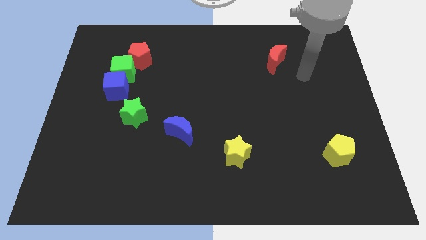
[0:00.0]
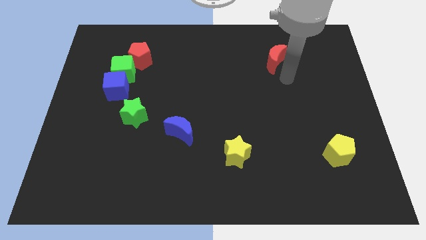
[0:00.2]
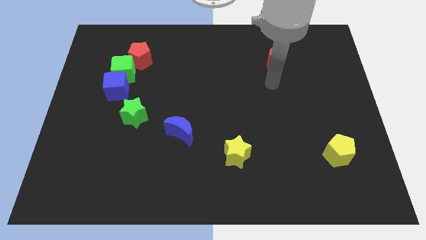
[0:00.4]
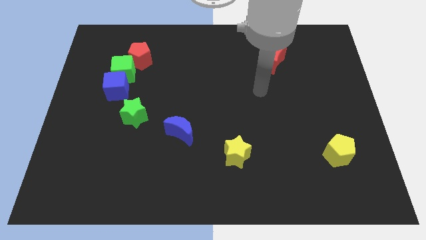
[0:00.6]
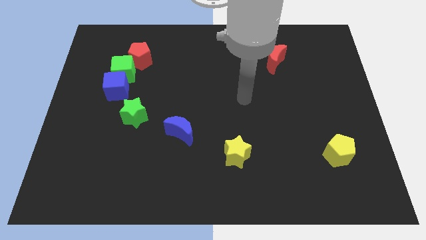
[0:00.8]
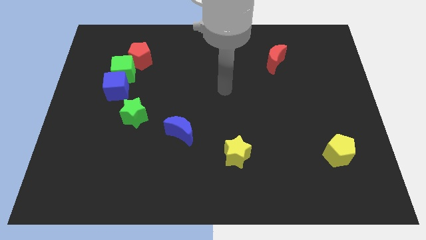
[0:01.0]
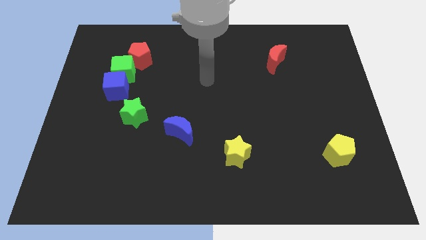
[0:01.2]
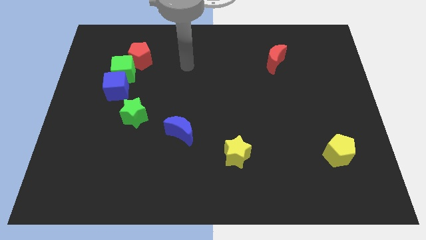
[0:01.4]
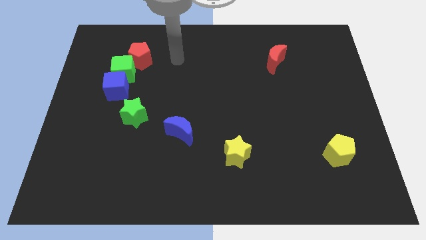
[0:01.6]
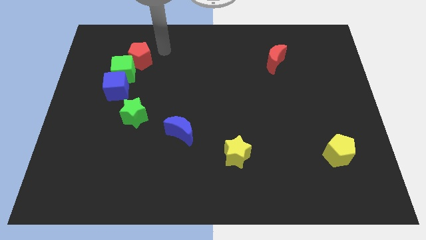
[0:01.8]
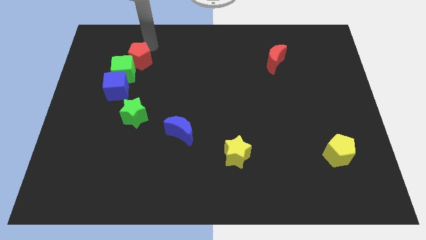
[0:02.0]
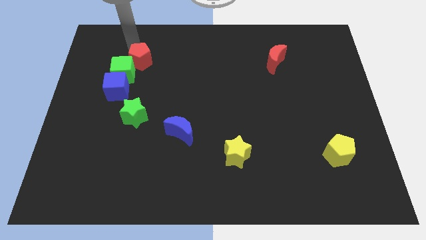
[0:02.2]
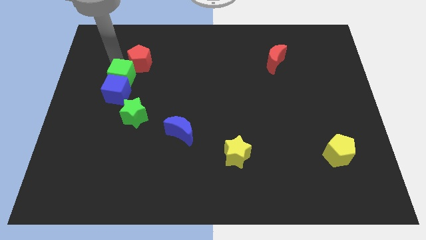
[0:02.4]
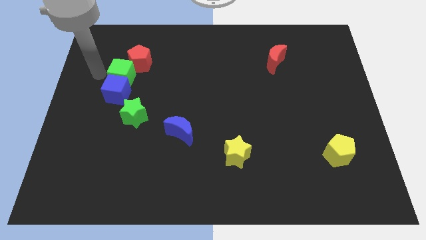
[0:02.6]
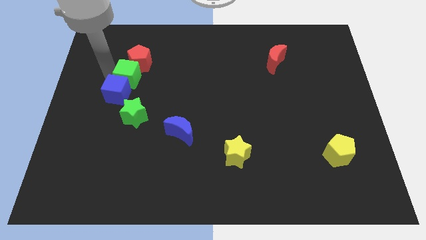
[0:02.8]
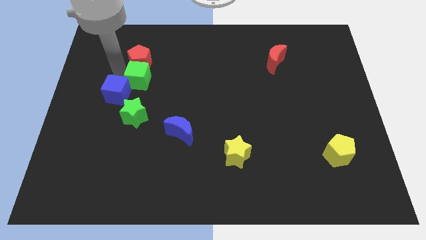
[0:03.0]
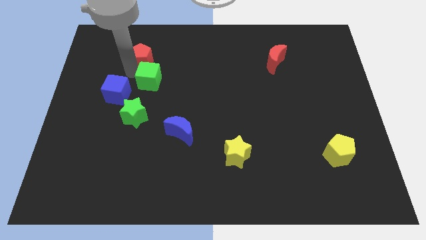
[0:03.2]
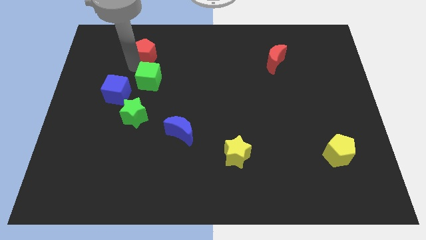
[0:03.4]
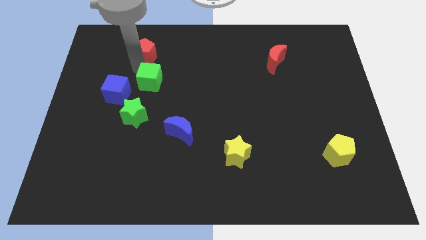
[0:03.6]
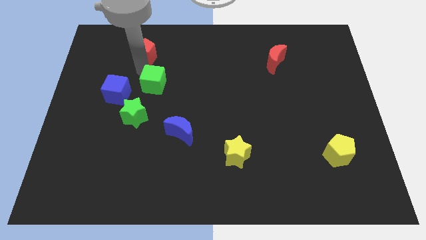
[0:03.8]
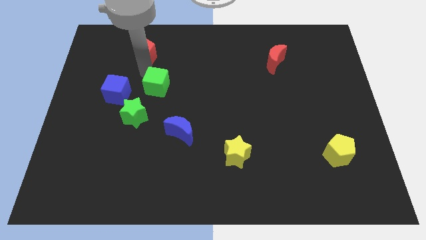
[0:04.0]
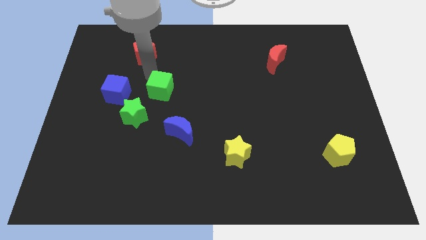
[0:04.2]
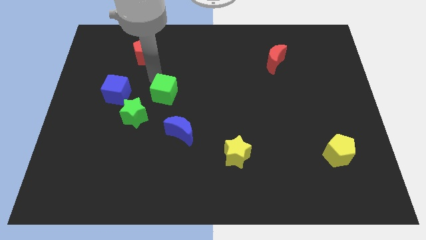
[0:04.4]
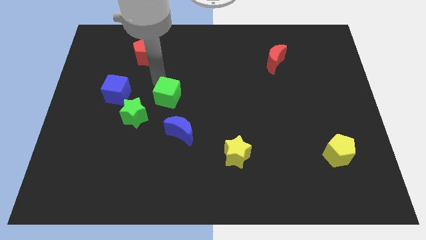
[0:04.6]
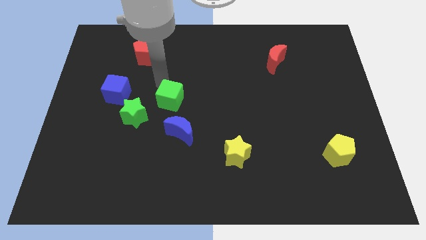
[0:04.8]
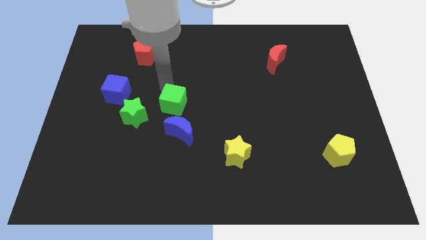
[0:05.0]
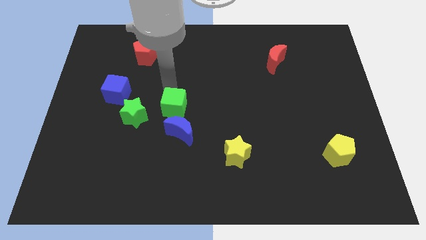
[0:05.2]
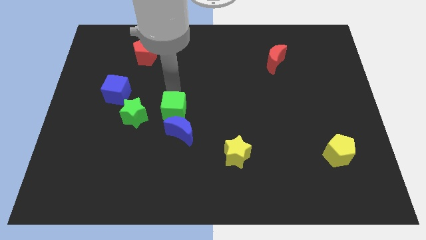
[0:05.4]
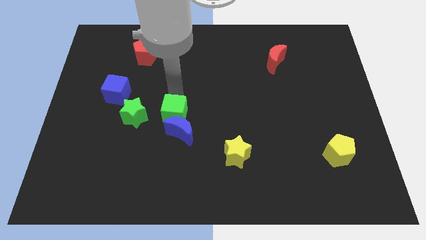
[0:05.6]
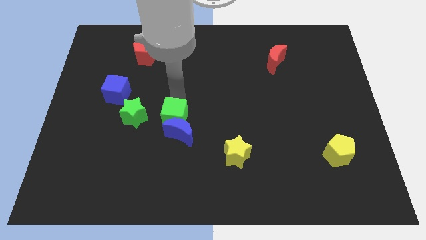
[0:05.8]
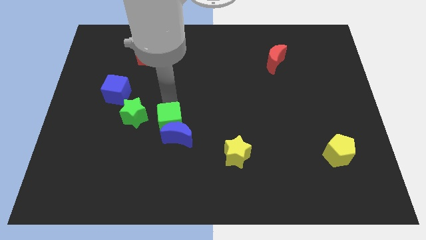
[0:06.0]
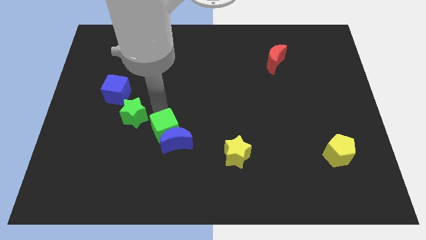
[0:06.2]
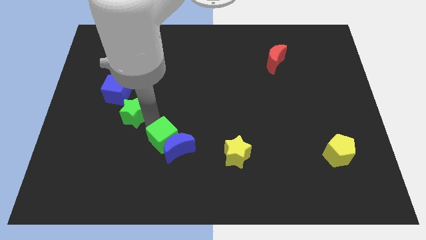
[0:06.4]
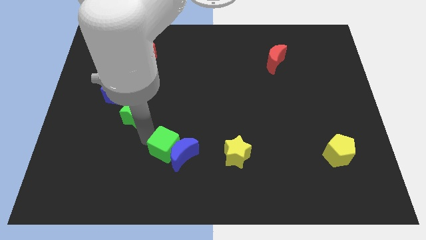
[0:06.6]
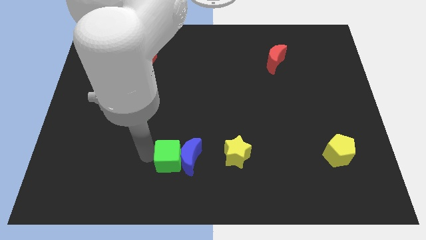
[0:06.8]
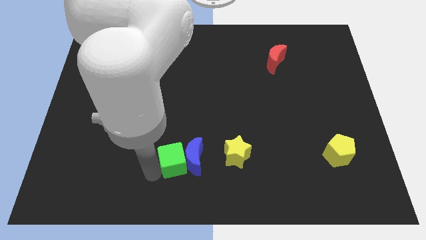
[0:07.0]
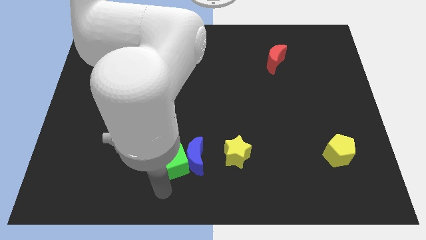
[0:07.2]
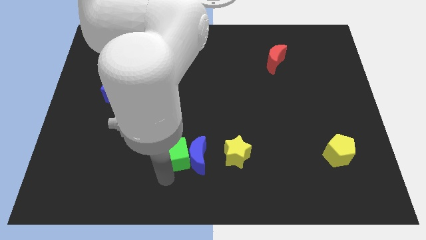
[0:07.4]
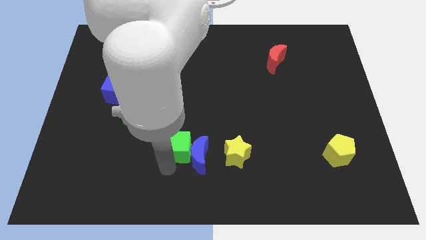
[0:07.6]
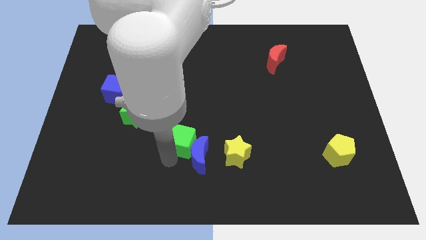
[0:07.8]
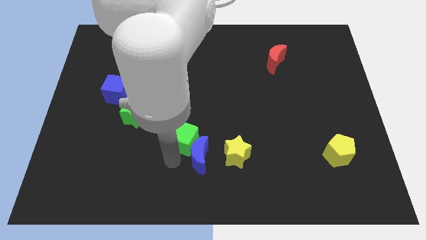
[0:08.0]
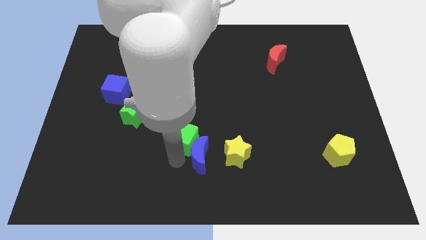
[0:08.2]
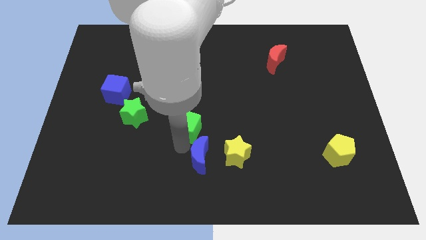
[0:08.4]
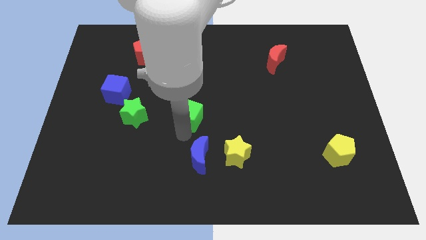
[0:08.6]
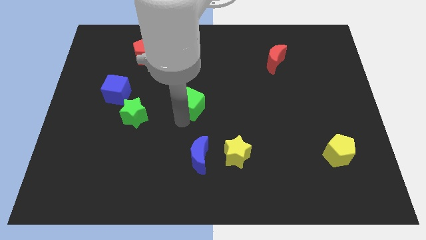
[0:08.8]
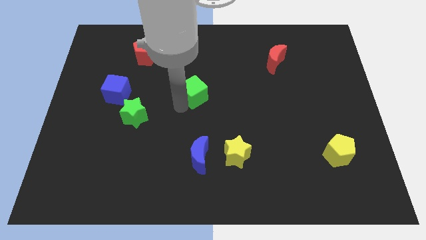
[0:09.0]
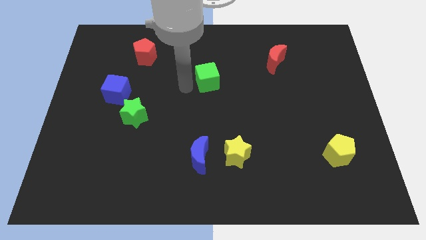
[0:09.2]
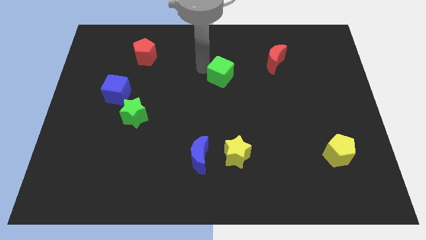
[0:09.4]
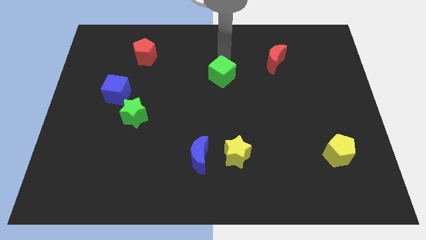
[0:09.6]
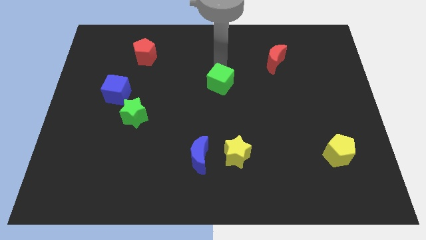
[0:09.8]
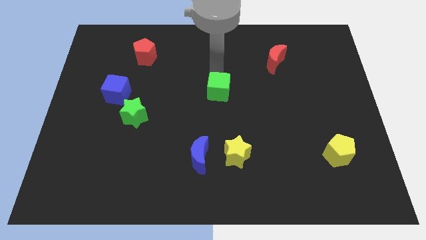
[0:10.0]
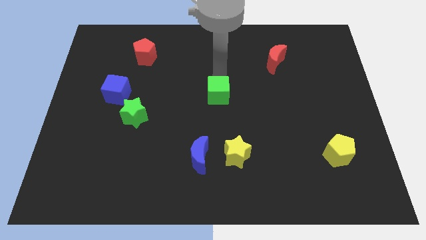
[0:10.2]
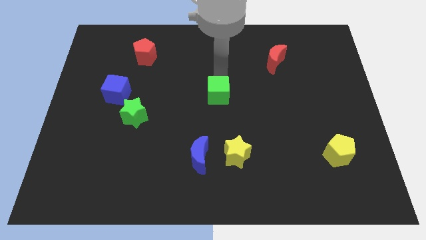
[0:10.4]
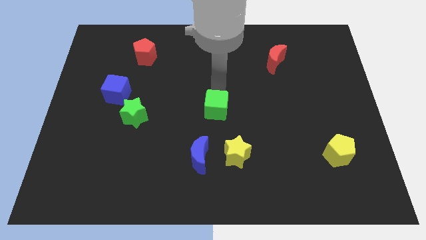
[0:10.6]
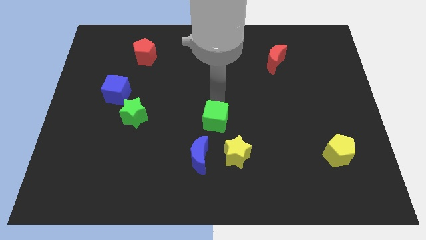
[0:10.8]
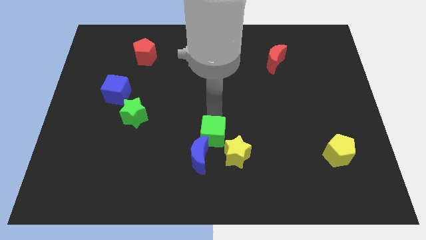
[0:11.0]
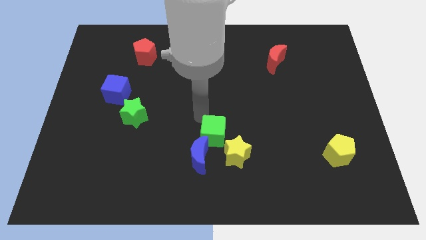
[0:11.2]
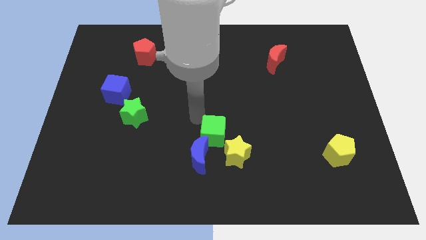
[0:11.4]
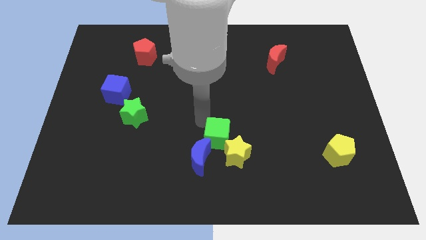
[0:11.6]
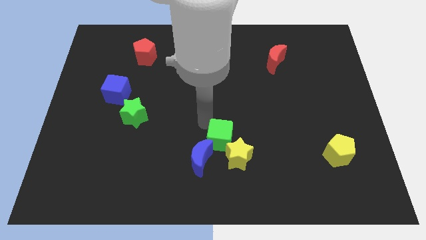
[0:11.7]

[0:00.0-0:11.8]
push the green cube close to the yellow star
